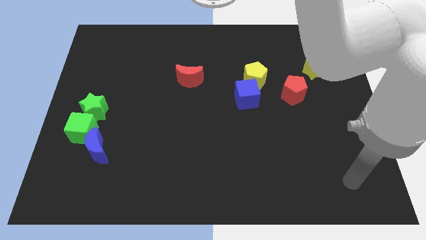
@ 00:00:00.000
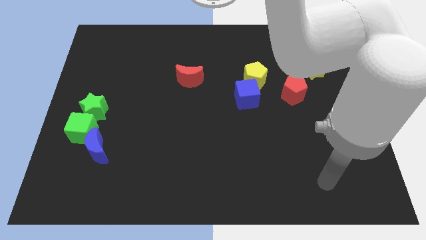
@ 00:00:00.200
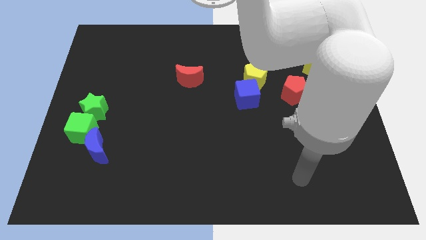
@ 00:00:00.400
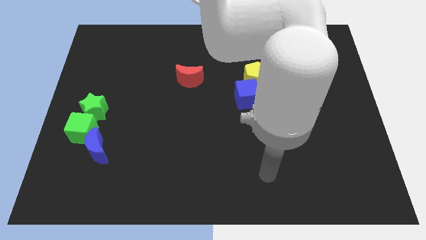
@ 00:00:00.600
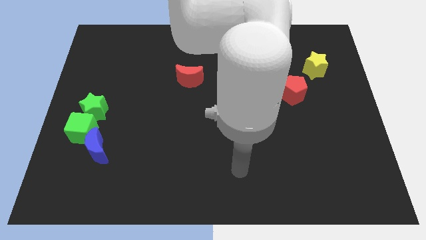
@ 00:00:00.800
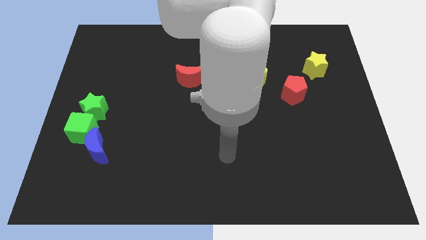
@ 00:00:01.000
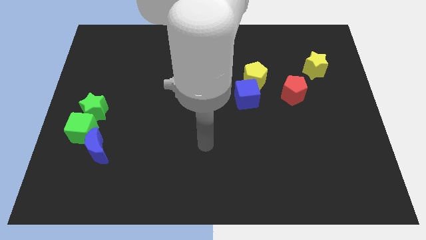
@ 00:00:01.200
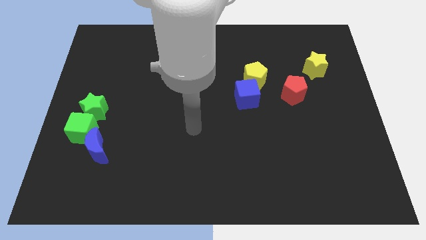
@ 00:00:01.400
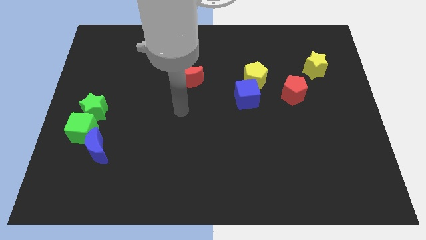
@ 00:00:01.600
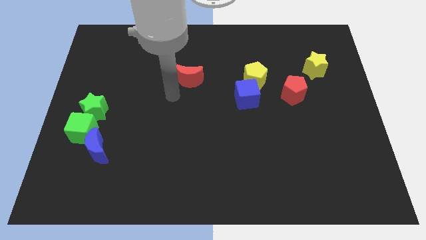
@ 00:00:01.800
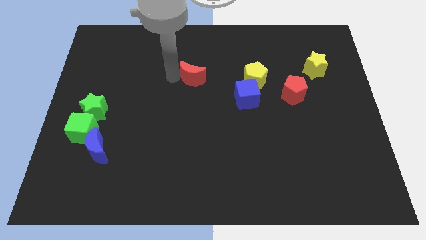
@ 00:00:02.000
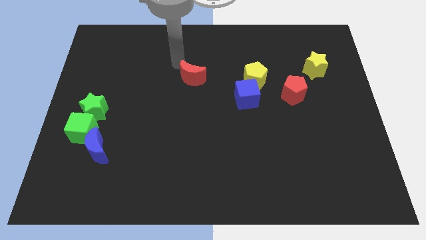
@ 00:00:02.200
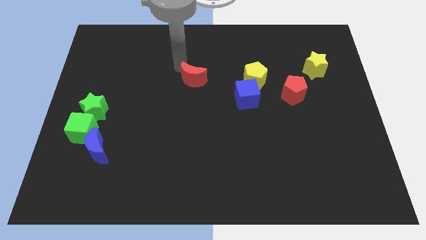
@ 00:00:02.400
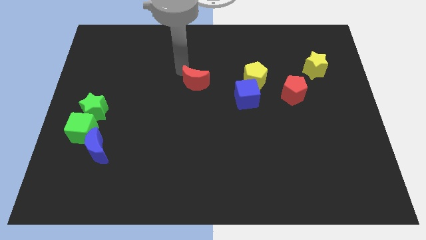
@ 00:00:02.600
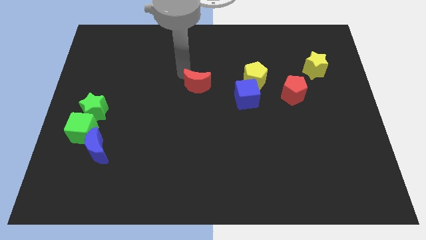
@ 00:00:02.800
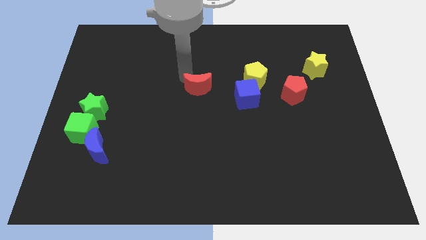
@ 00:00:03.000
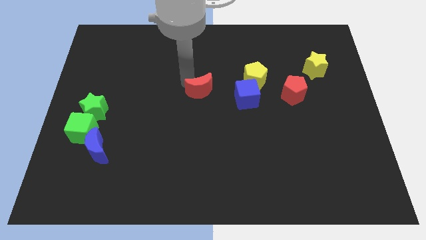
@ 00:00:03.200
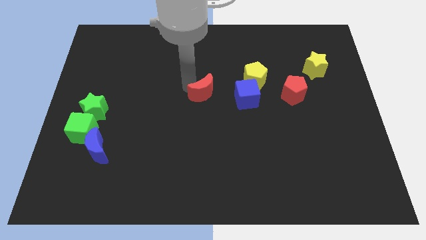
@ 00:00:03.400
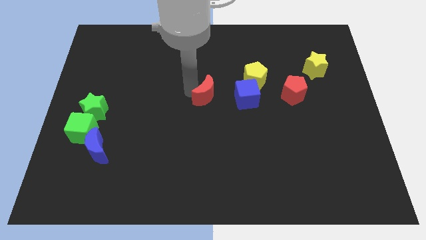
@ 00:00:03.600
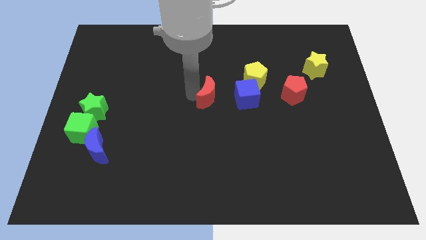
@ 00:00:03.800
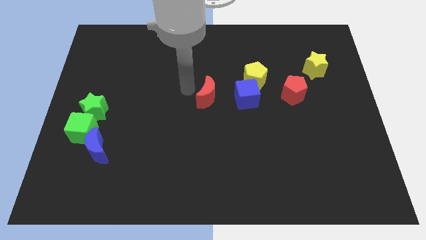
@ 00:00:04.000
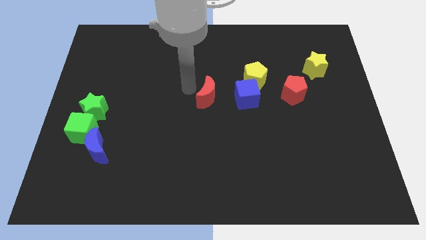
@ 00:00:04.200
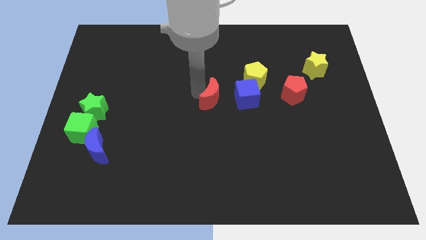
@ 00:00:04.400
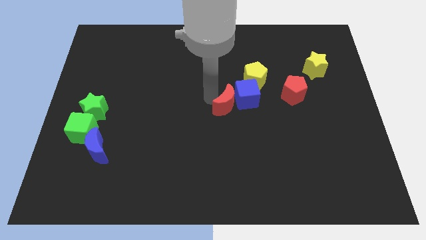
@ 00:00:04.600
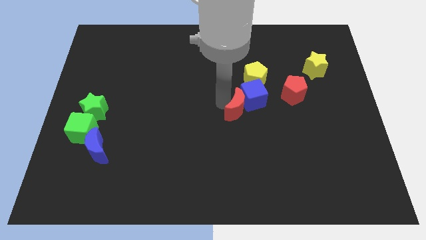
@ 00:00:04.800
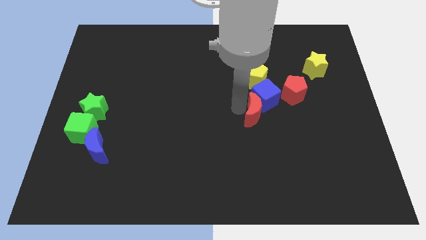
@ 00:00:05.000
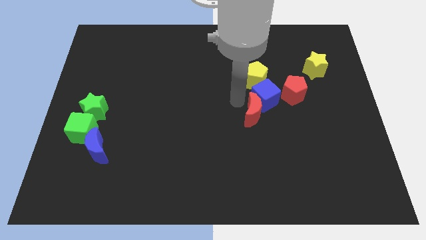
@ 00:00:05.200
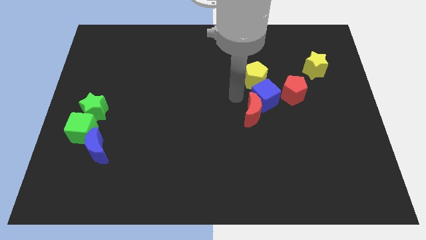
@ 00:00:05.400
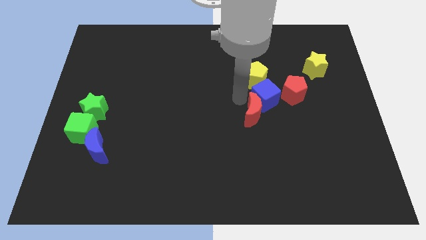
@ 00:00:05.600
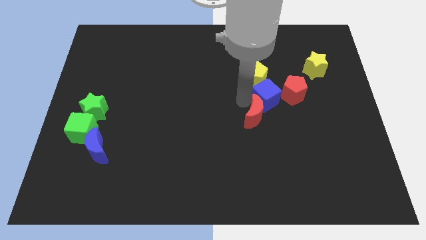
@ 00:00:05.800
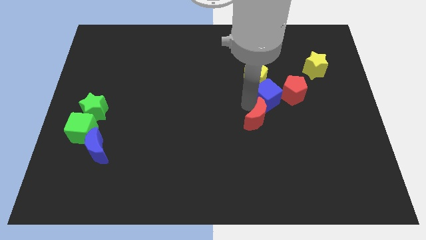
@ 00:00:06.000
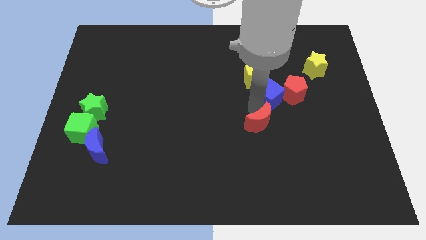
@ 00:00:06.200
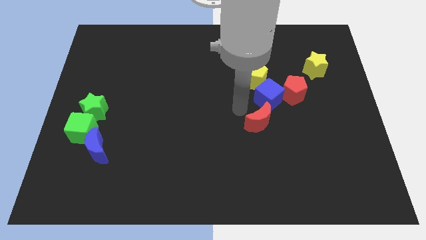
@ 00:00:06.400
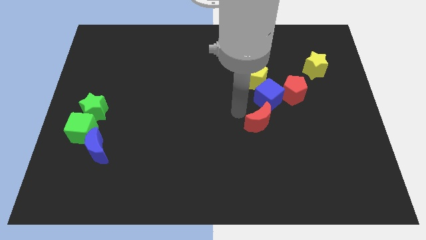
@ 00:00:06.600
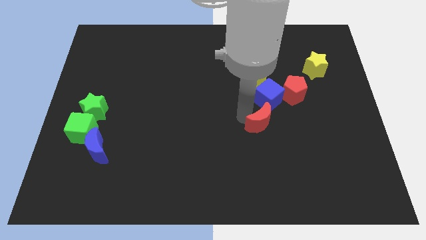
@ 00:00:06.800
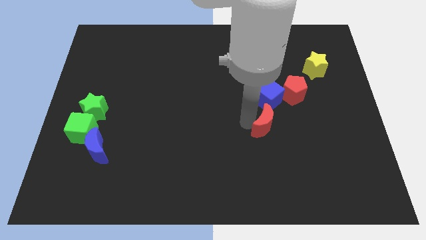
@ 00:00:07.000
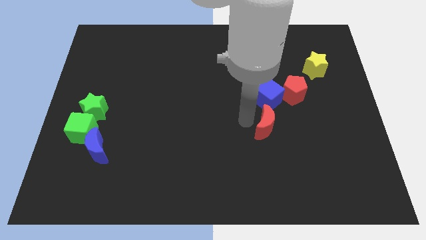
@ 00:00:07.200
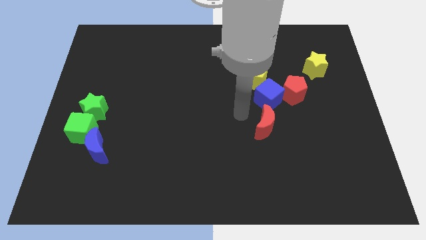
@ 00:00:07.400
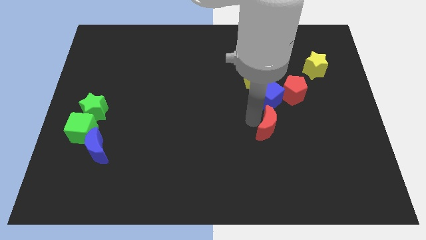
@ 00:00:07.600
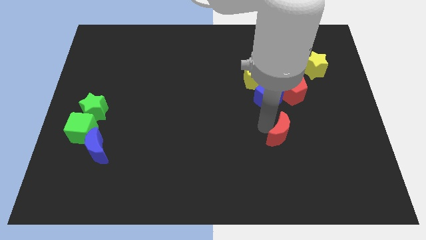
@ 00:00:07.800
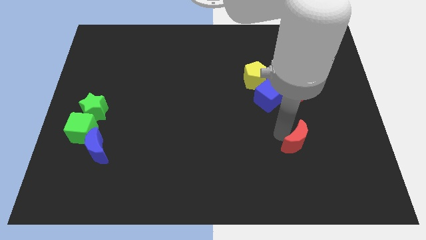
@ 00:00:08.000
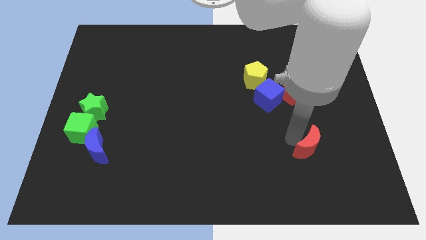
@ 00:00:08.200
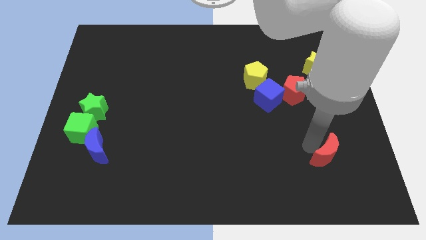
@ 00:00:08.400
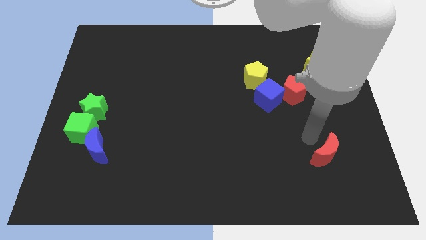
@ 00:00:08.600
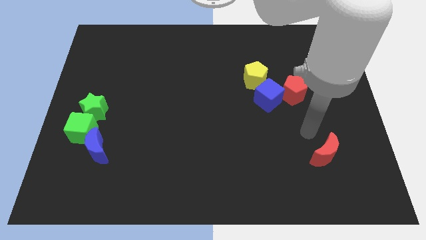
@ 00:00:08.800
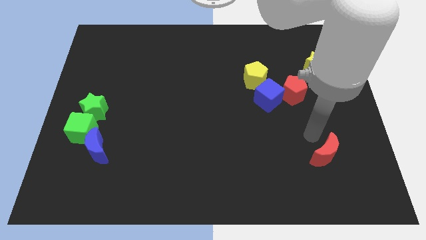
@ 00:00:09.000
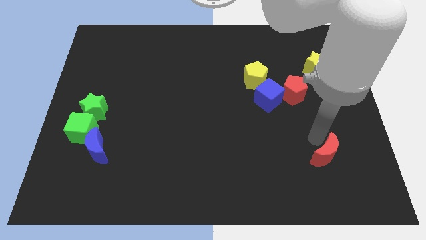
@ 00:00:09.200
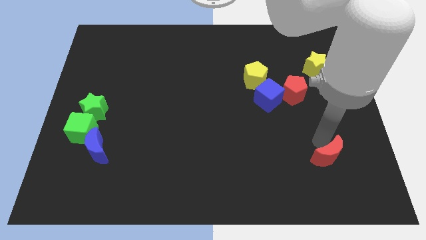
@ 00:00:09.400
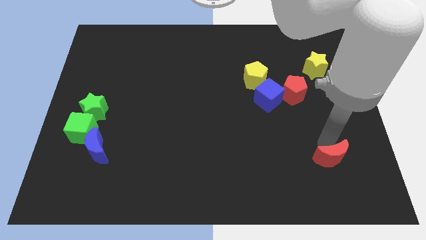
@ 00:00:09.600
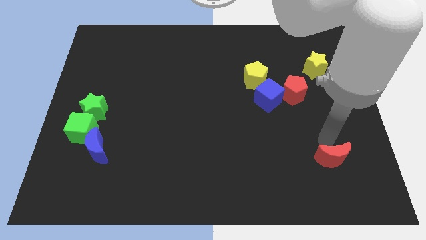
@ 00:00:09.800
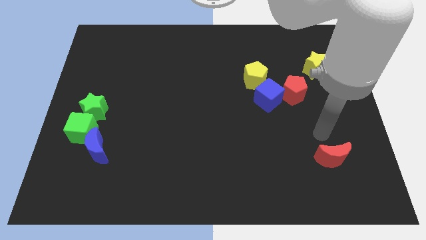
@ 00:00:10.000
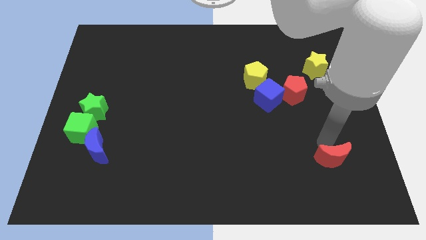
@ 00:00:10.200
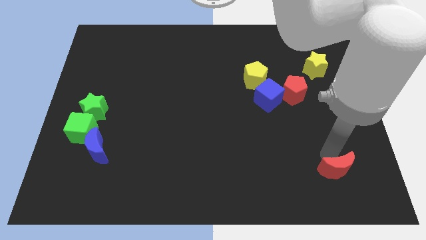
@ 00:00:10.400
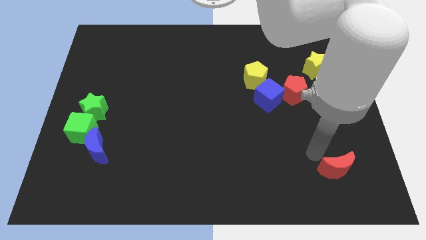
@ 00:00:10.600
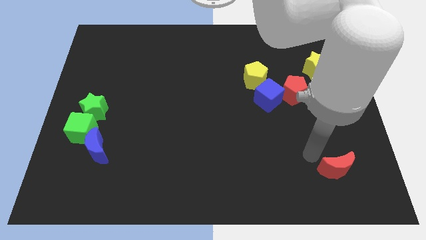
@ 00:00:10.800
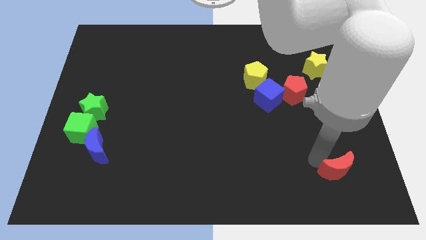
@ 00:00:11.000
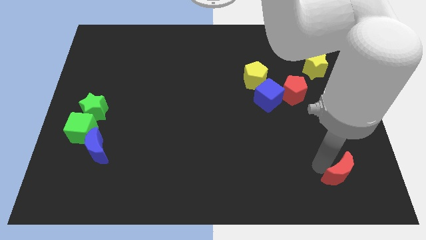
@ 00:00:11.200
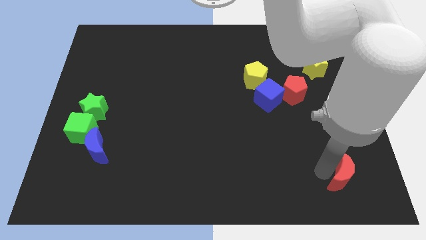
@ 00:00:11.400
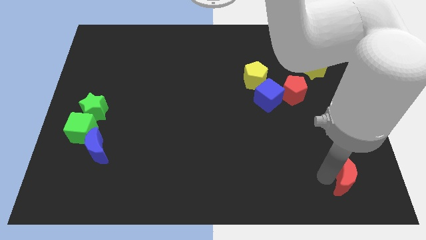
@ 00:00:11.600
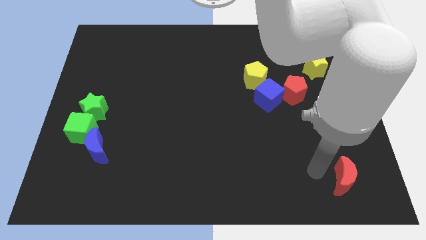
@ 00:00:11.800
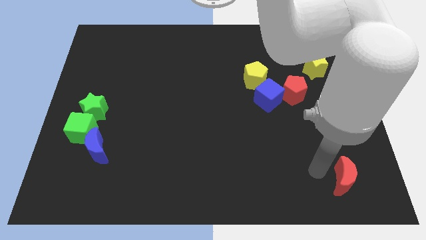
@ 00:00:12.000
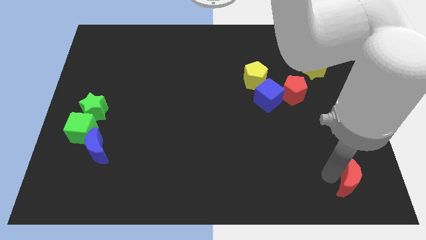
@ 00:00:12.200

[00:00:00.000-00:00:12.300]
move the red moon to the lower right corner
